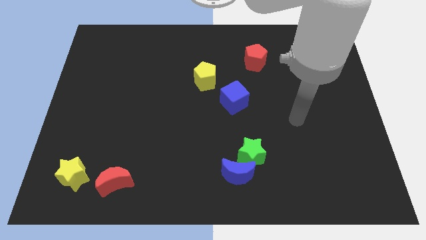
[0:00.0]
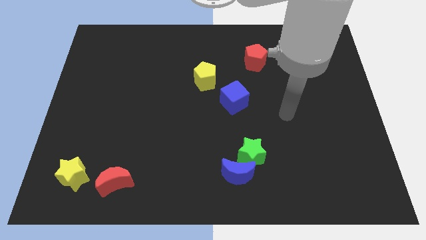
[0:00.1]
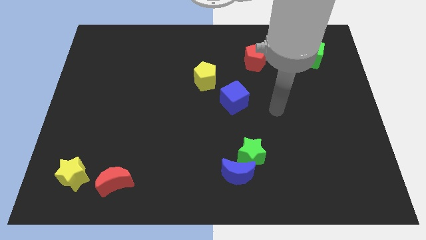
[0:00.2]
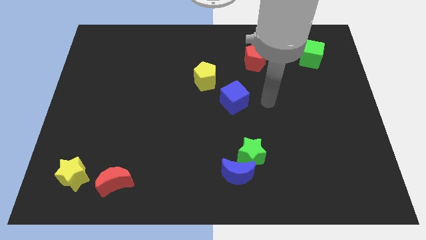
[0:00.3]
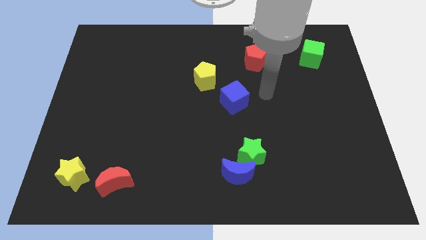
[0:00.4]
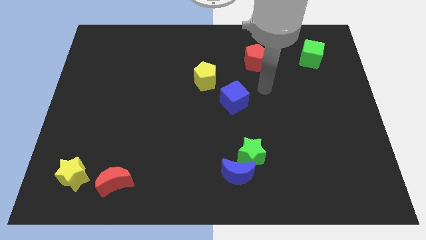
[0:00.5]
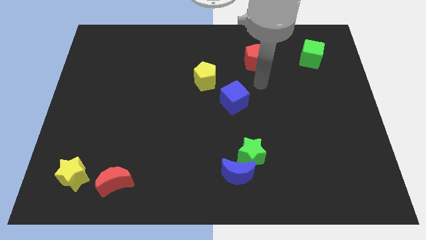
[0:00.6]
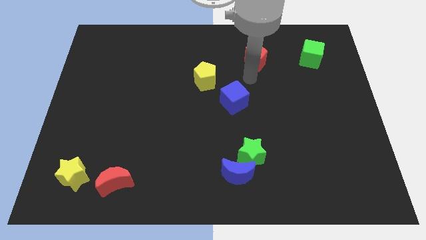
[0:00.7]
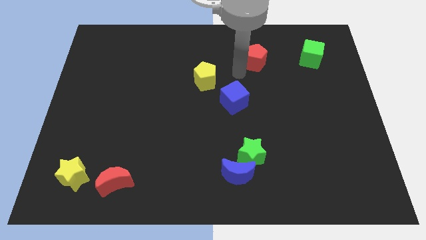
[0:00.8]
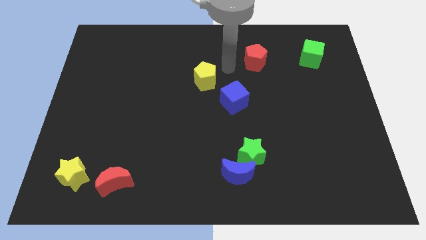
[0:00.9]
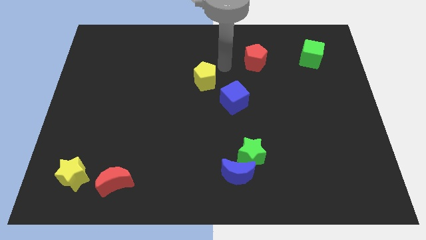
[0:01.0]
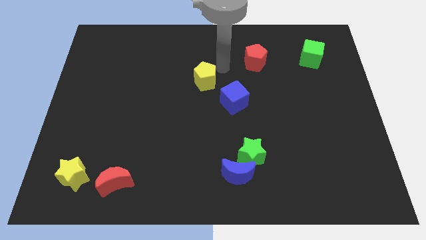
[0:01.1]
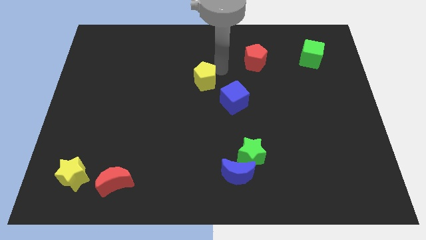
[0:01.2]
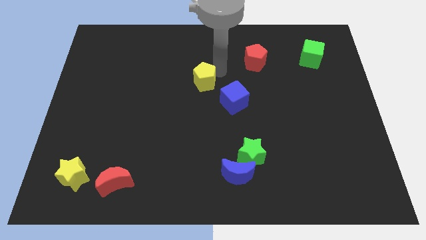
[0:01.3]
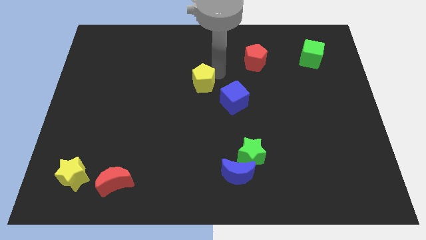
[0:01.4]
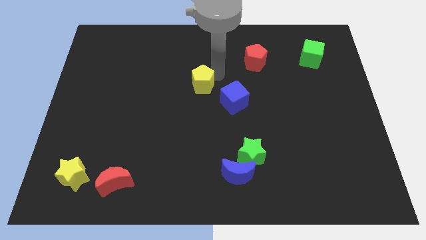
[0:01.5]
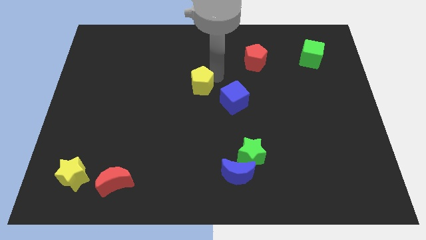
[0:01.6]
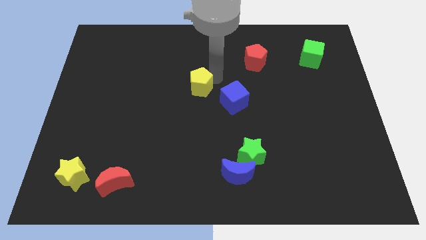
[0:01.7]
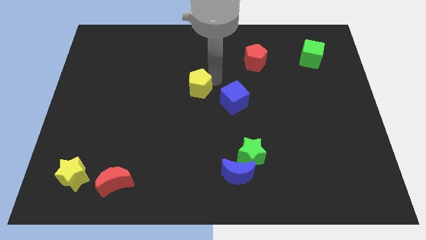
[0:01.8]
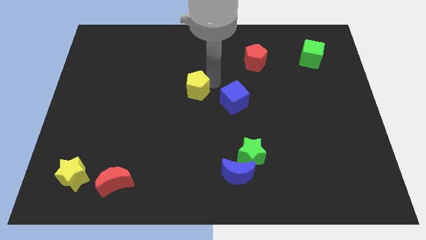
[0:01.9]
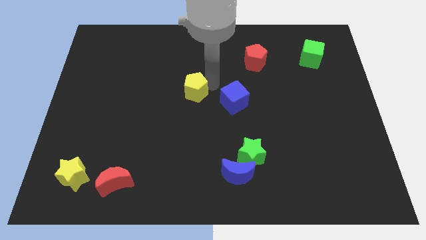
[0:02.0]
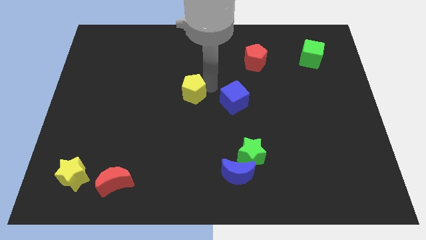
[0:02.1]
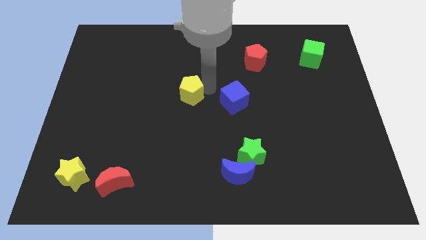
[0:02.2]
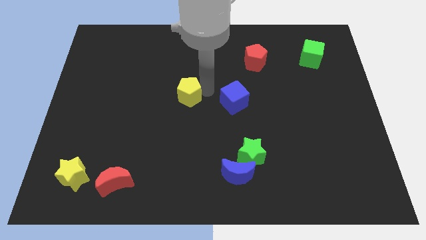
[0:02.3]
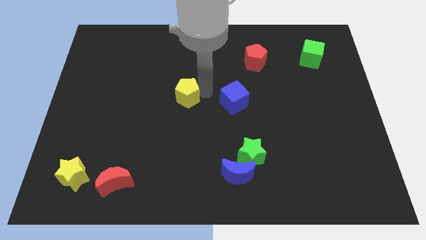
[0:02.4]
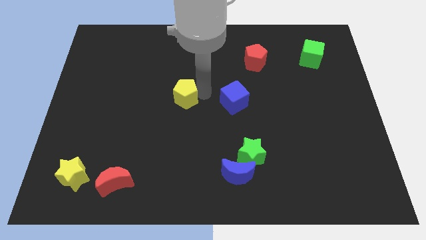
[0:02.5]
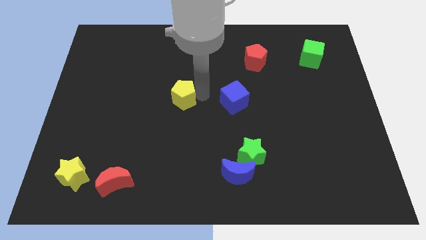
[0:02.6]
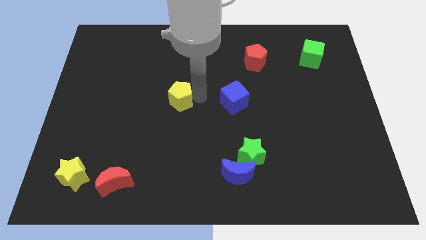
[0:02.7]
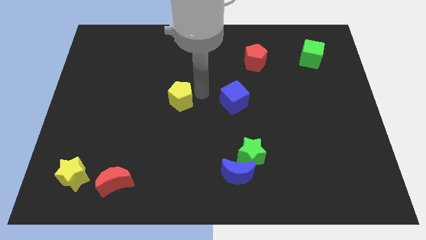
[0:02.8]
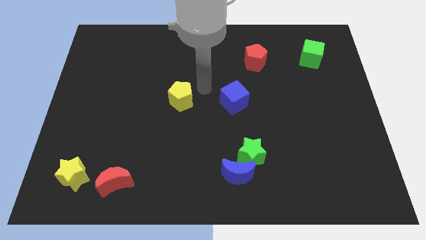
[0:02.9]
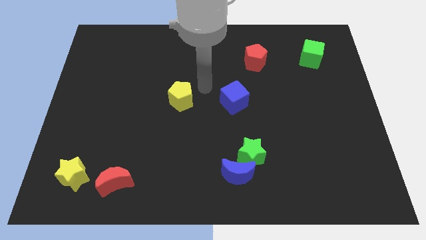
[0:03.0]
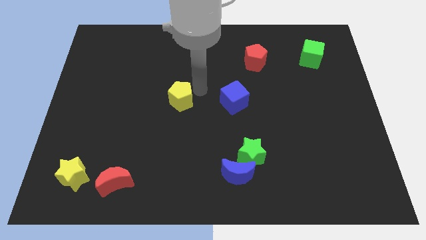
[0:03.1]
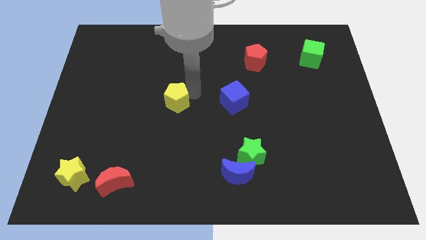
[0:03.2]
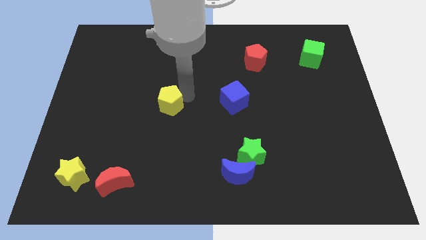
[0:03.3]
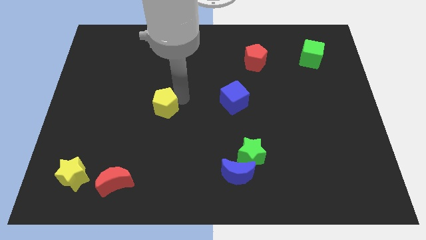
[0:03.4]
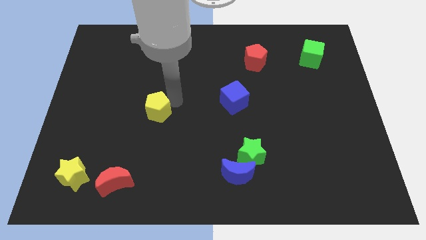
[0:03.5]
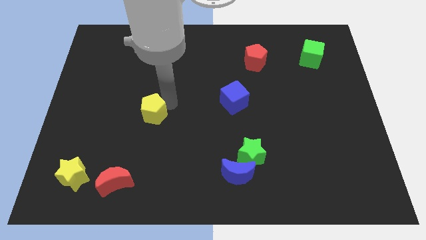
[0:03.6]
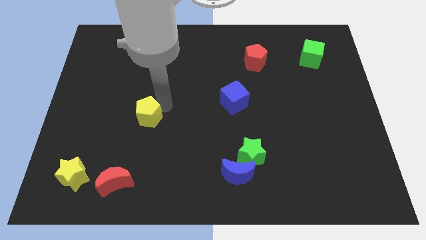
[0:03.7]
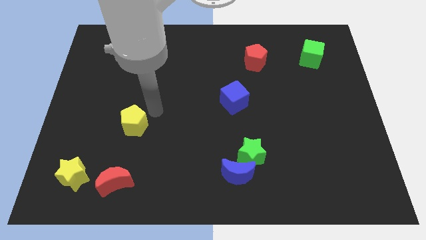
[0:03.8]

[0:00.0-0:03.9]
slide the yellow pentagon downwards and to the left diagonally

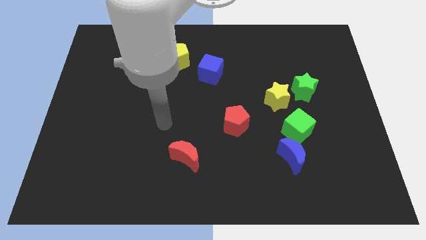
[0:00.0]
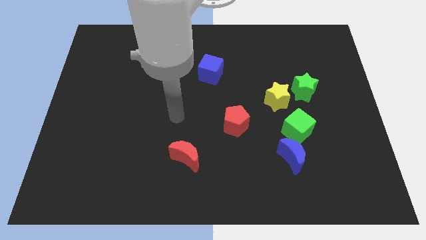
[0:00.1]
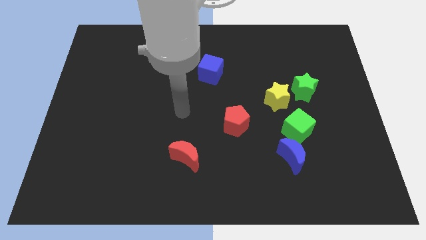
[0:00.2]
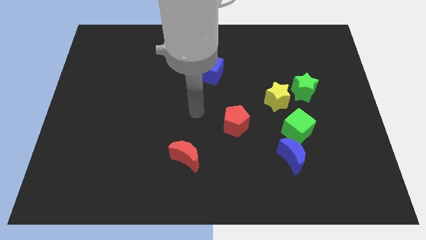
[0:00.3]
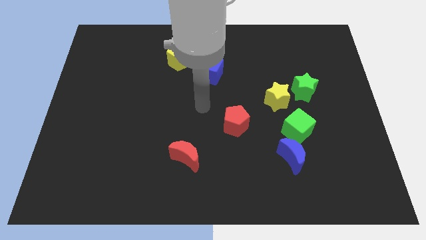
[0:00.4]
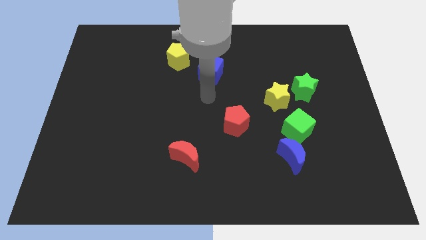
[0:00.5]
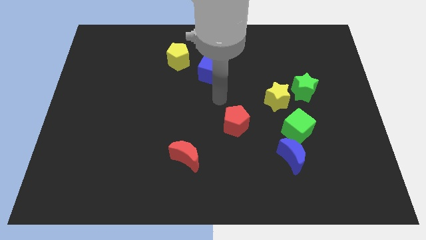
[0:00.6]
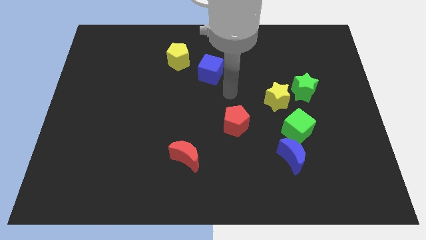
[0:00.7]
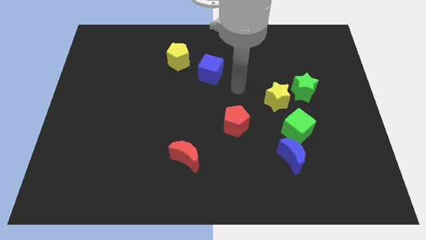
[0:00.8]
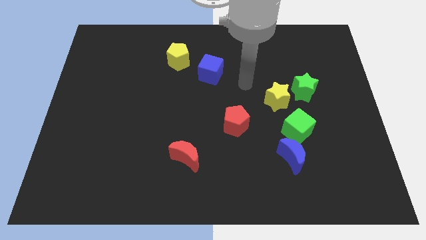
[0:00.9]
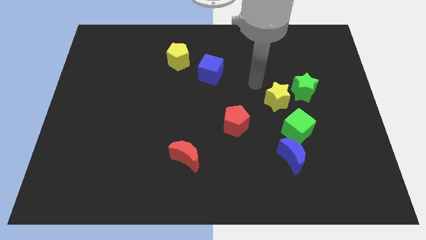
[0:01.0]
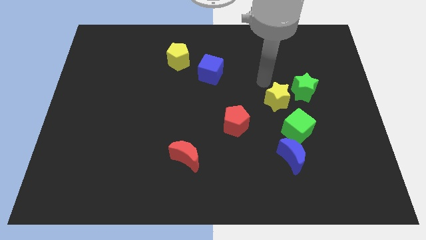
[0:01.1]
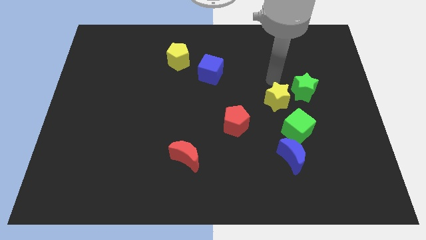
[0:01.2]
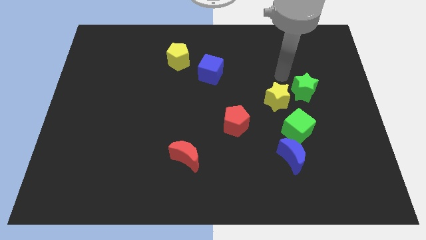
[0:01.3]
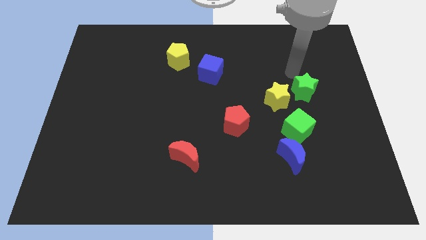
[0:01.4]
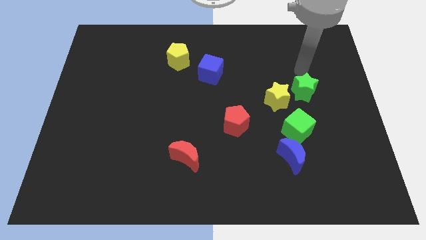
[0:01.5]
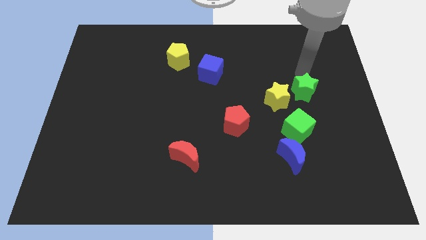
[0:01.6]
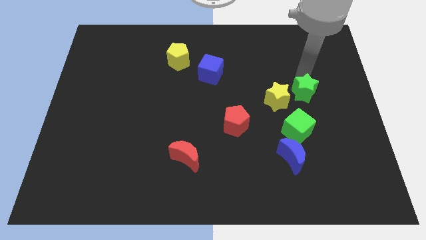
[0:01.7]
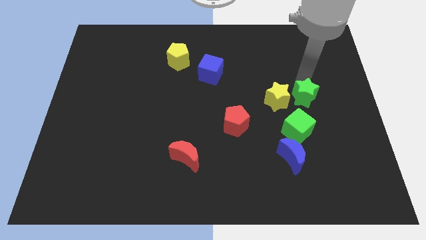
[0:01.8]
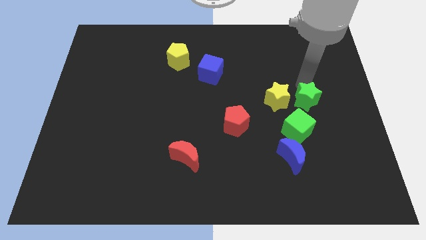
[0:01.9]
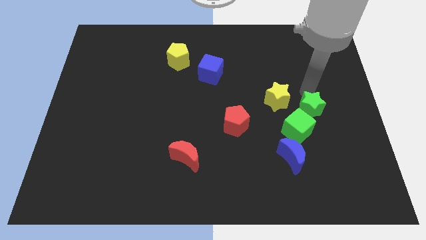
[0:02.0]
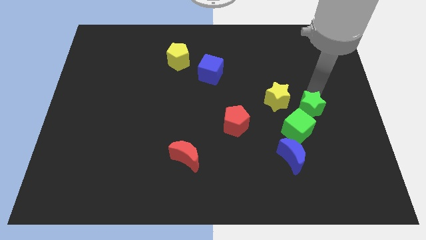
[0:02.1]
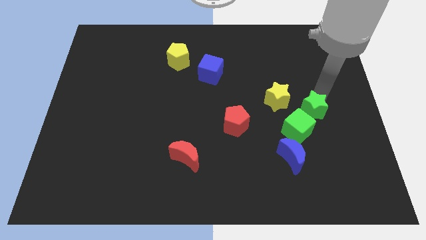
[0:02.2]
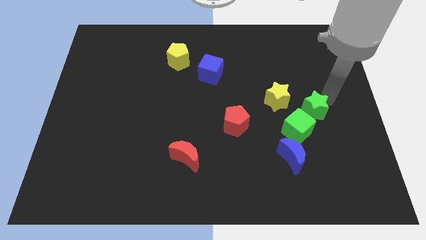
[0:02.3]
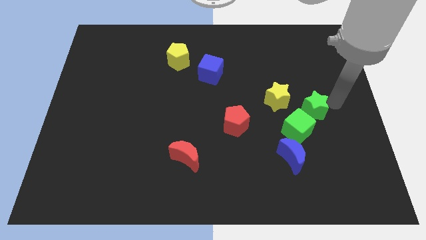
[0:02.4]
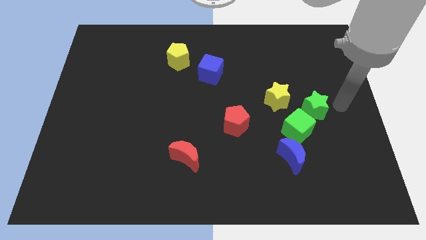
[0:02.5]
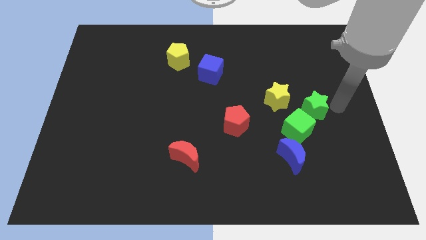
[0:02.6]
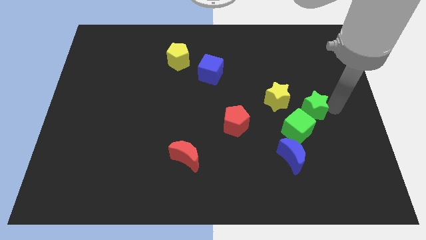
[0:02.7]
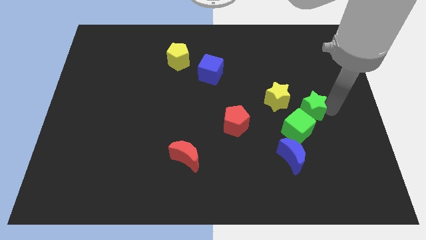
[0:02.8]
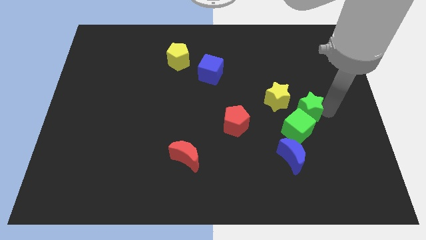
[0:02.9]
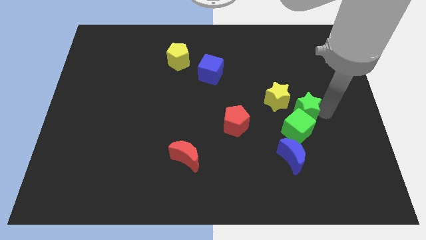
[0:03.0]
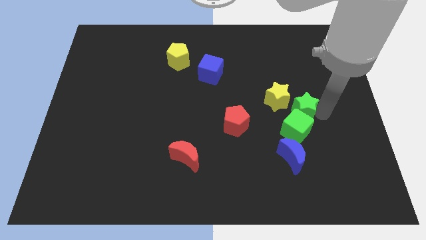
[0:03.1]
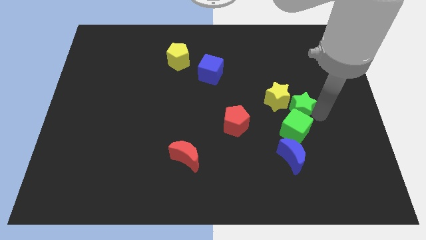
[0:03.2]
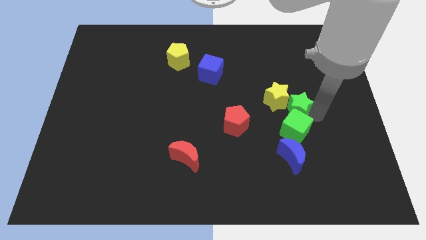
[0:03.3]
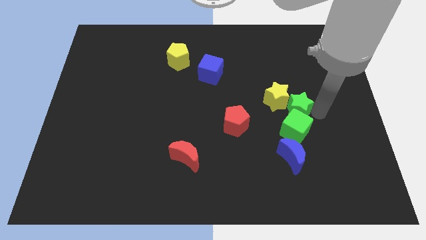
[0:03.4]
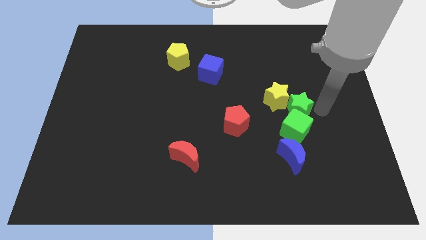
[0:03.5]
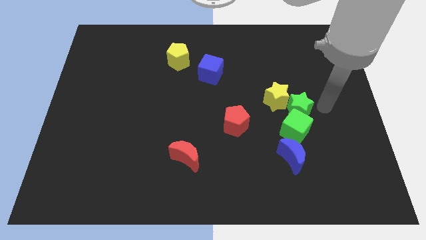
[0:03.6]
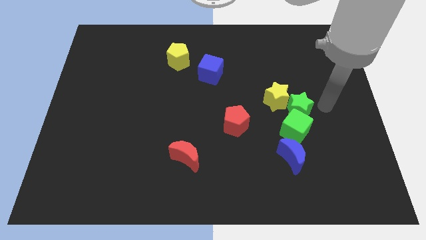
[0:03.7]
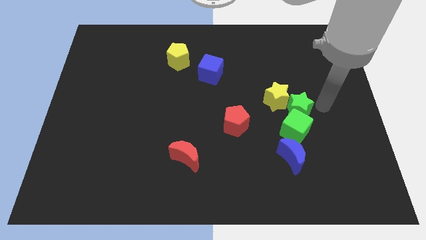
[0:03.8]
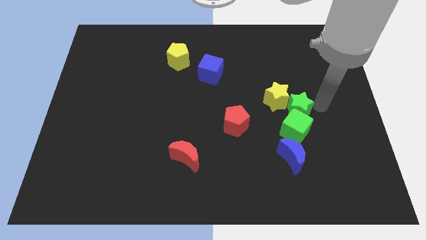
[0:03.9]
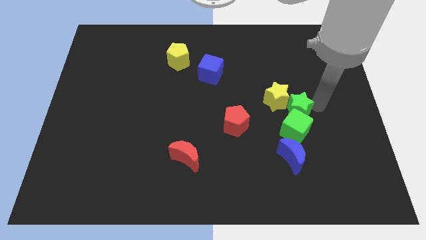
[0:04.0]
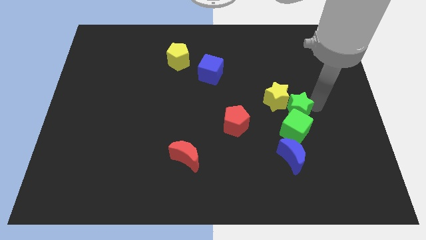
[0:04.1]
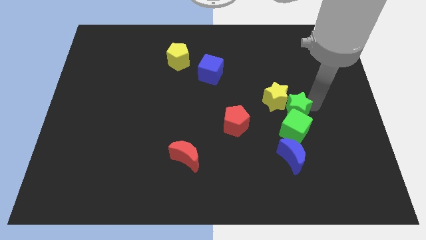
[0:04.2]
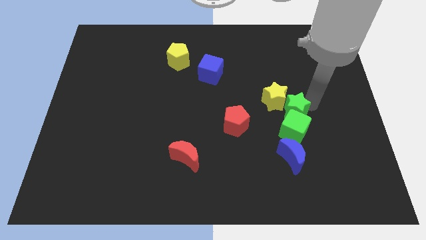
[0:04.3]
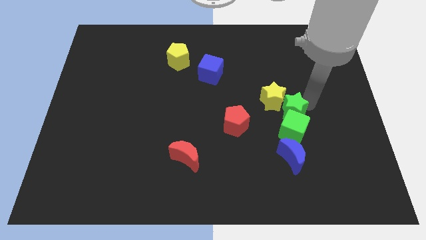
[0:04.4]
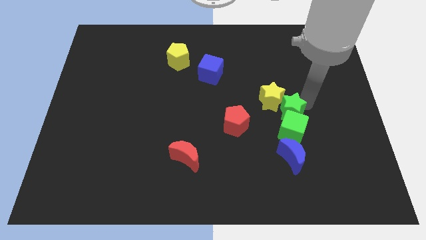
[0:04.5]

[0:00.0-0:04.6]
slightly move the green star downwards and to the left
